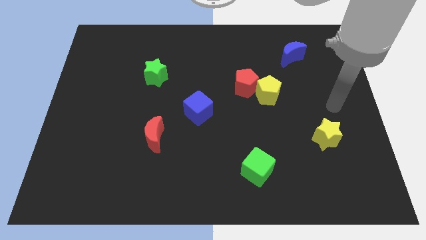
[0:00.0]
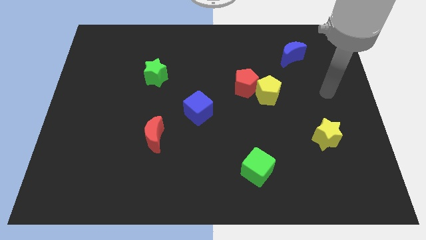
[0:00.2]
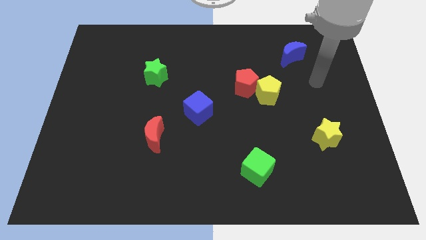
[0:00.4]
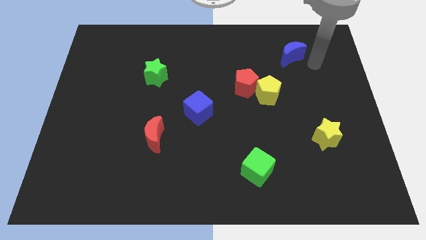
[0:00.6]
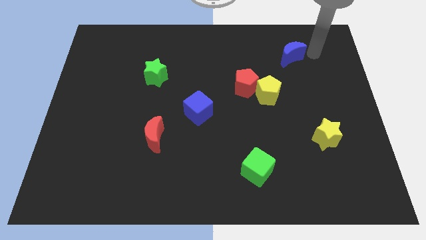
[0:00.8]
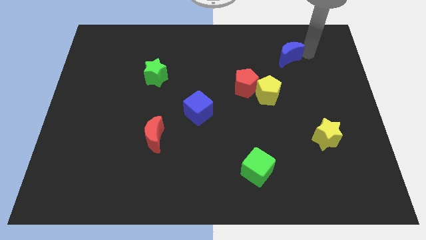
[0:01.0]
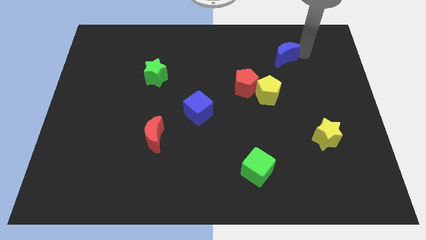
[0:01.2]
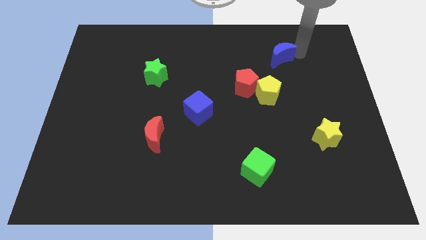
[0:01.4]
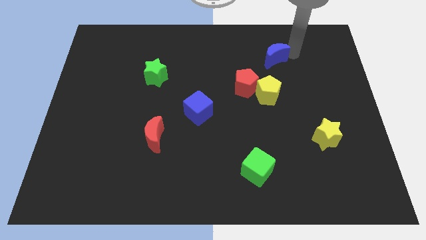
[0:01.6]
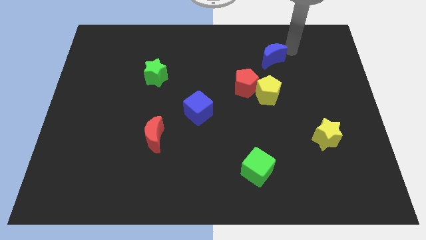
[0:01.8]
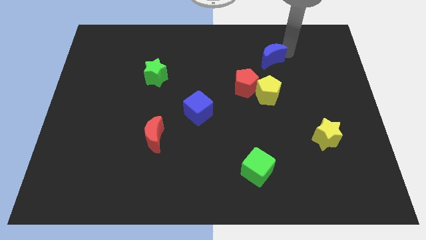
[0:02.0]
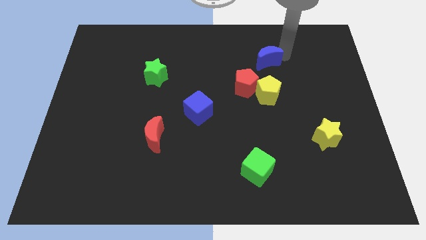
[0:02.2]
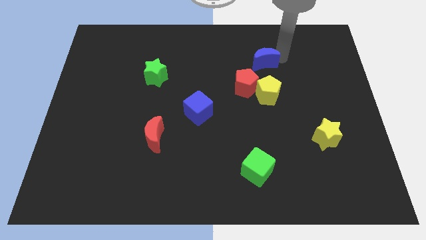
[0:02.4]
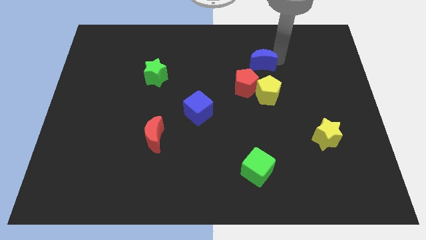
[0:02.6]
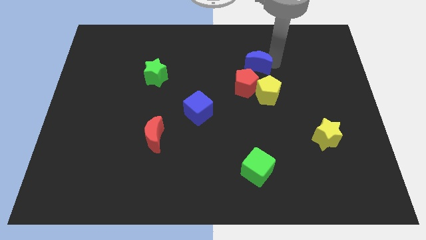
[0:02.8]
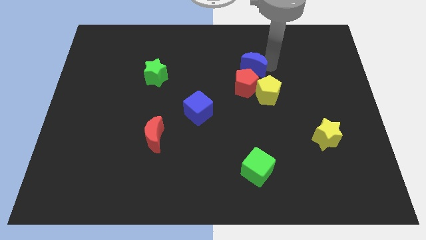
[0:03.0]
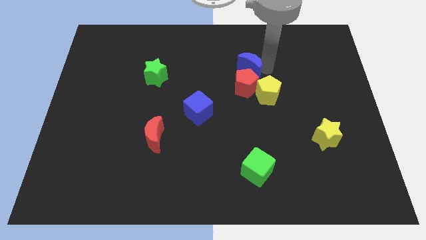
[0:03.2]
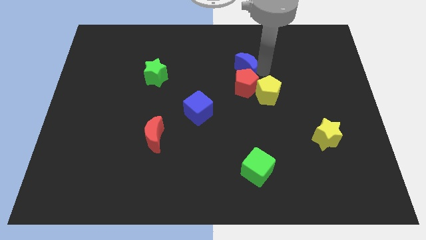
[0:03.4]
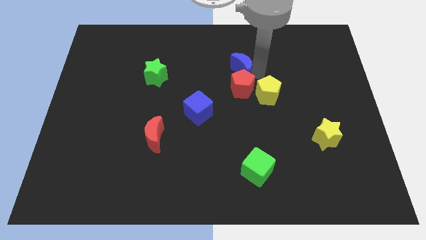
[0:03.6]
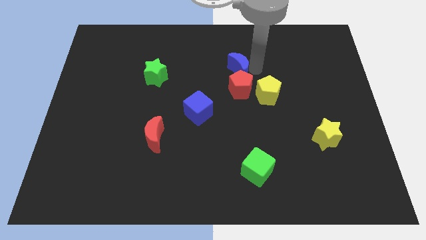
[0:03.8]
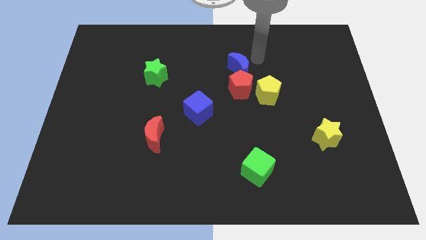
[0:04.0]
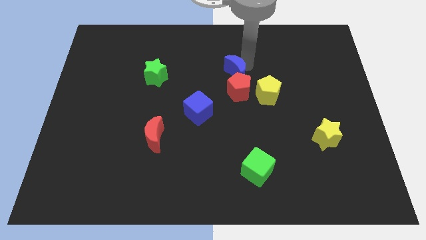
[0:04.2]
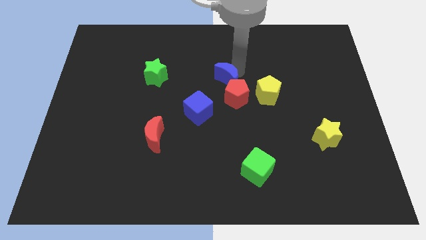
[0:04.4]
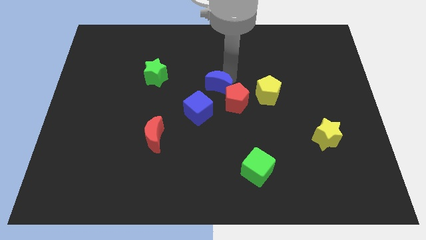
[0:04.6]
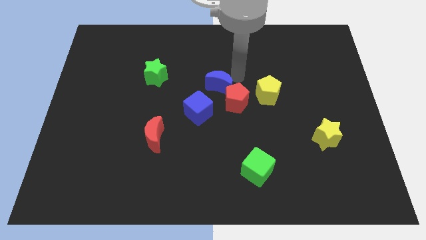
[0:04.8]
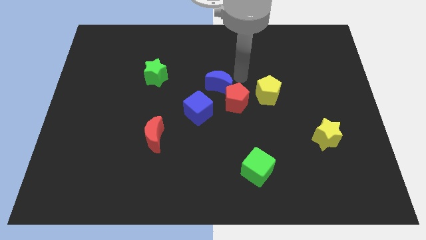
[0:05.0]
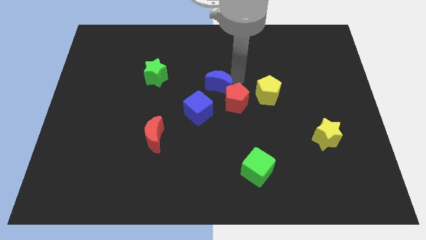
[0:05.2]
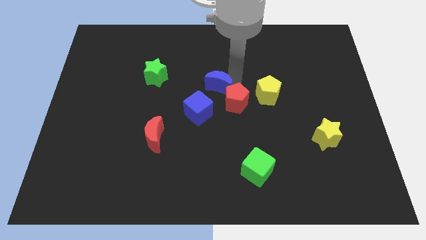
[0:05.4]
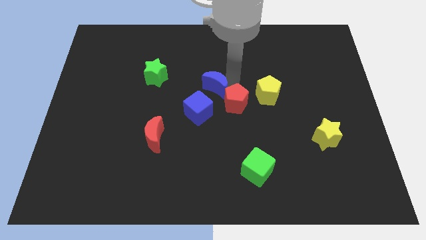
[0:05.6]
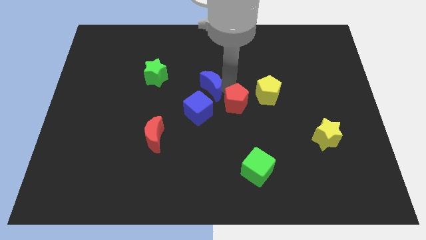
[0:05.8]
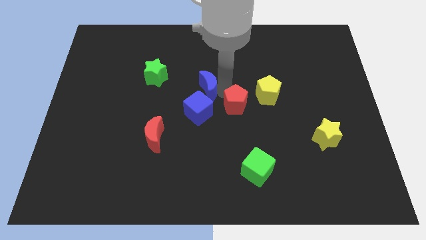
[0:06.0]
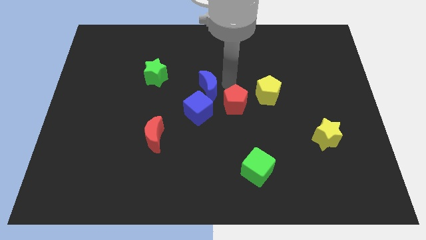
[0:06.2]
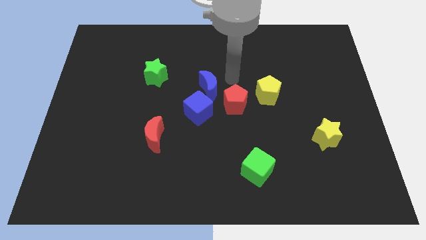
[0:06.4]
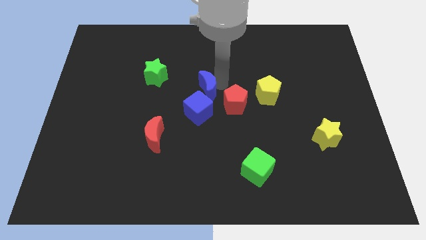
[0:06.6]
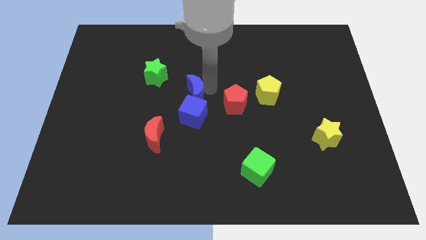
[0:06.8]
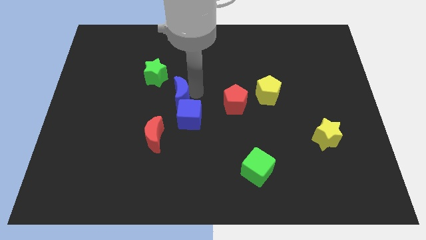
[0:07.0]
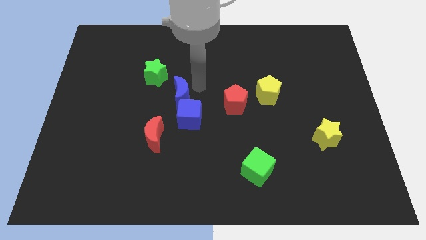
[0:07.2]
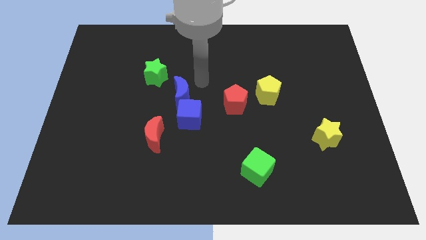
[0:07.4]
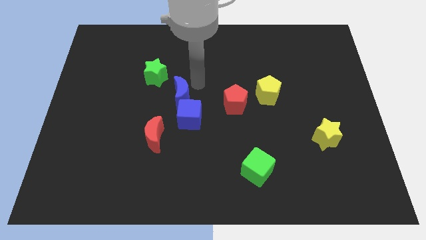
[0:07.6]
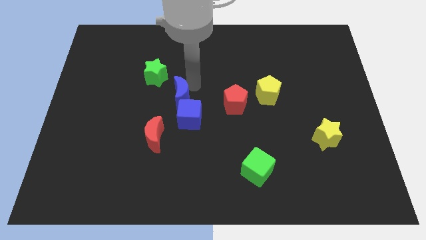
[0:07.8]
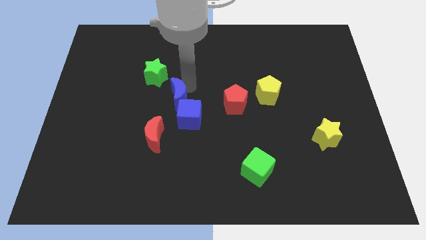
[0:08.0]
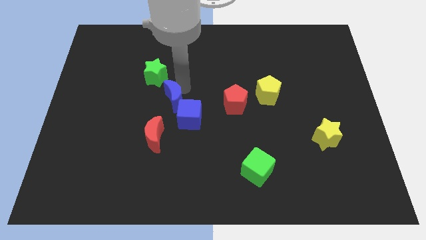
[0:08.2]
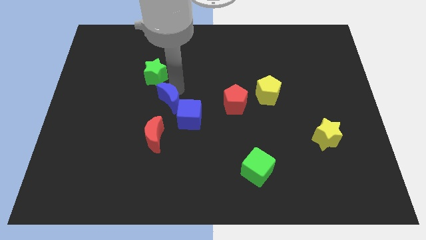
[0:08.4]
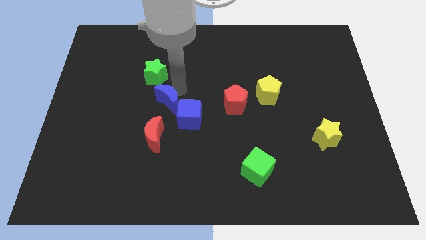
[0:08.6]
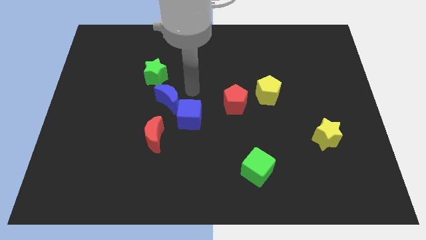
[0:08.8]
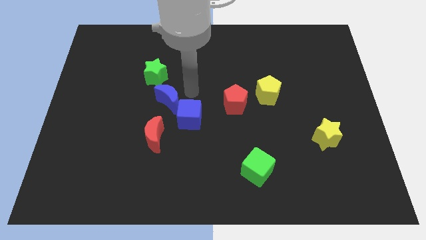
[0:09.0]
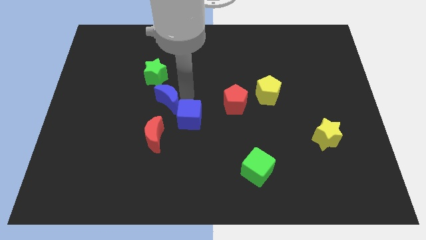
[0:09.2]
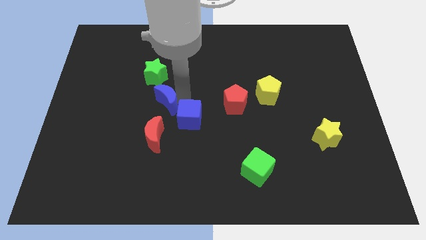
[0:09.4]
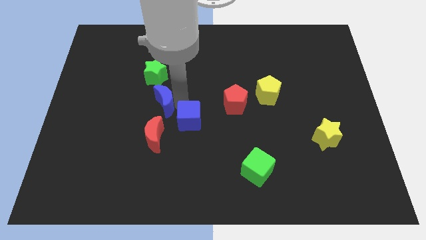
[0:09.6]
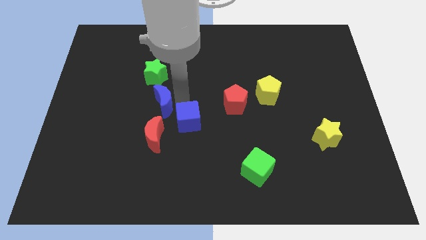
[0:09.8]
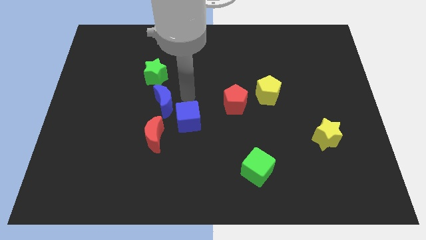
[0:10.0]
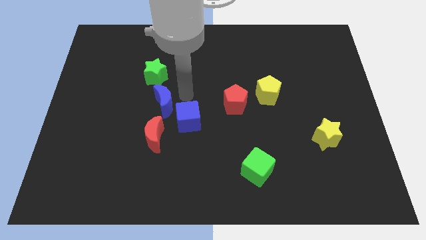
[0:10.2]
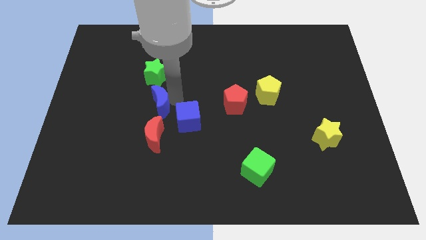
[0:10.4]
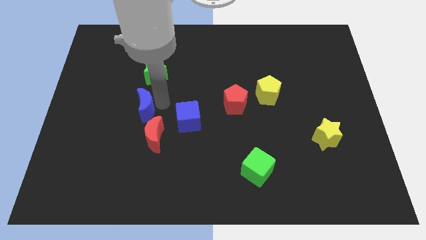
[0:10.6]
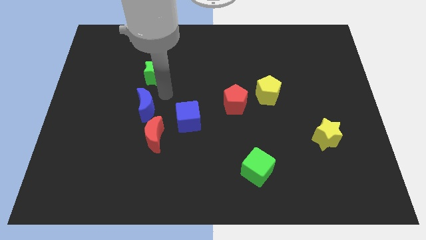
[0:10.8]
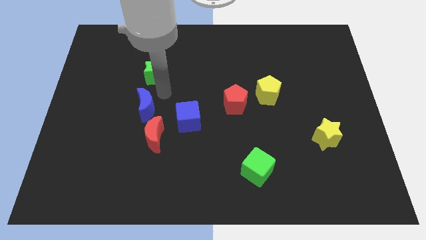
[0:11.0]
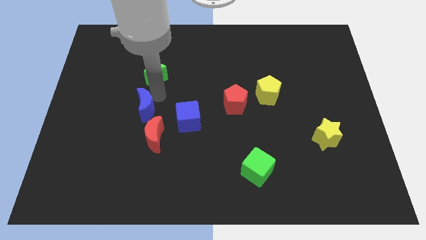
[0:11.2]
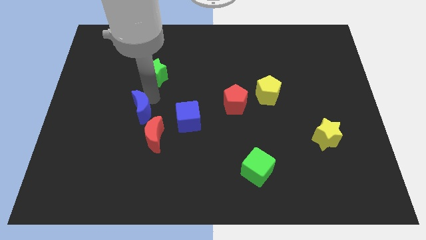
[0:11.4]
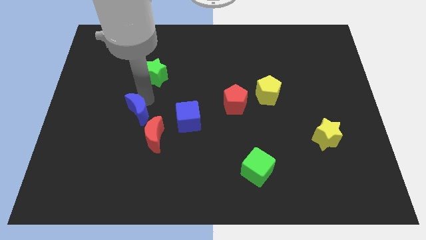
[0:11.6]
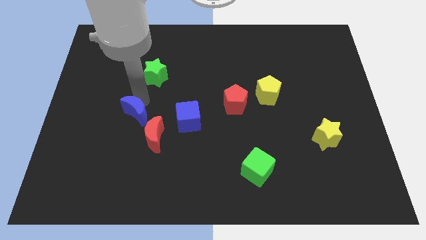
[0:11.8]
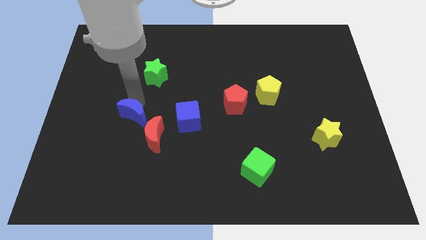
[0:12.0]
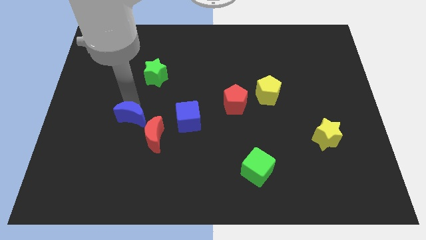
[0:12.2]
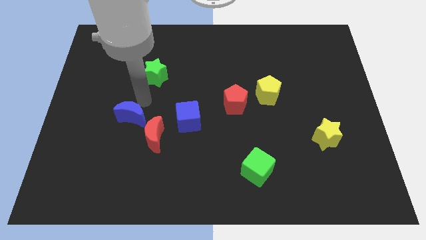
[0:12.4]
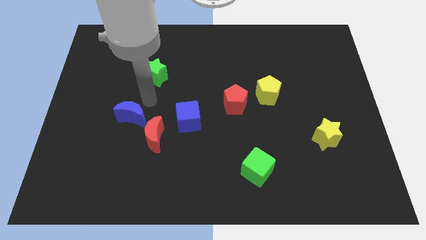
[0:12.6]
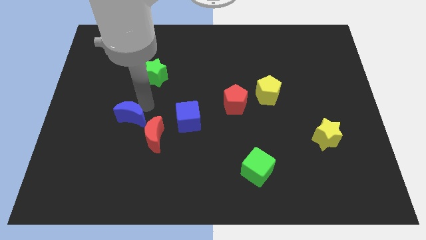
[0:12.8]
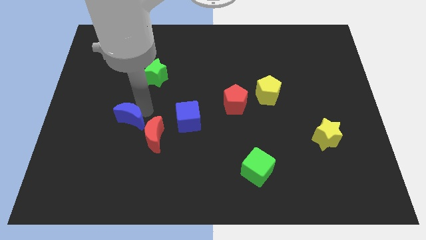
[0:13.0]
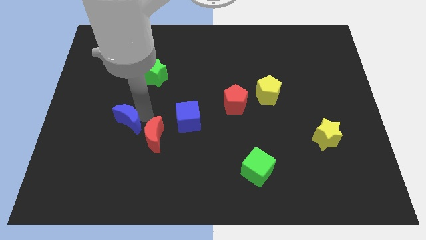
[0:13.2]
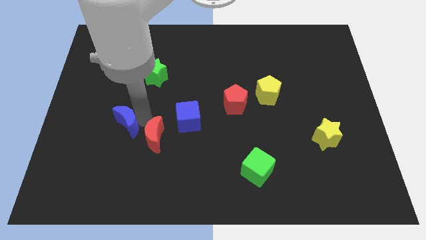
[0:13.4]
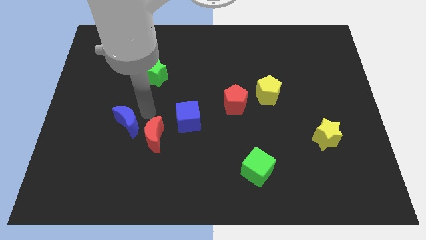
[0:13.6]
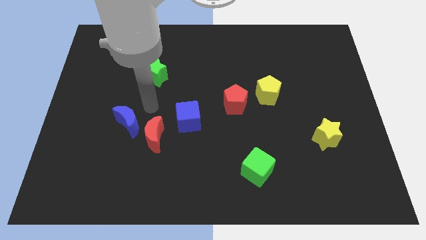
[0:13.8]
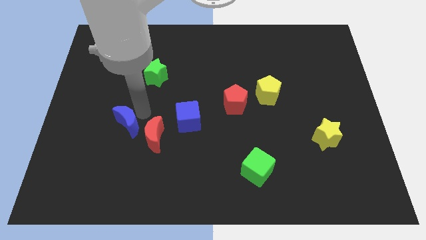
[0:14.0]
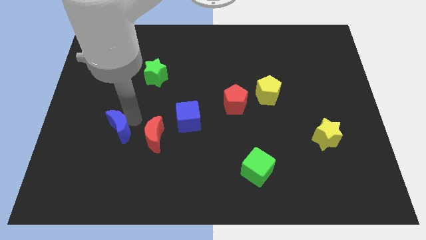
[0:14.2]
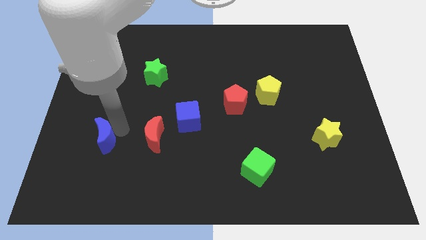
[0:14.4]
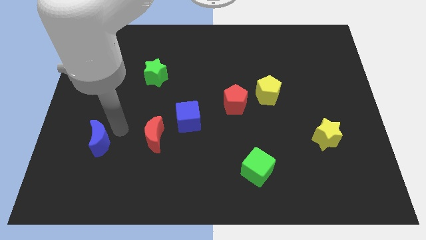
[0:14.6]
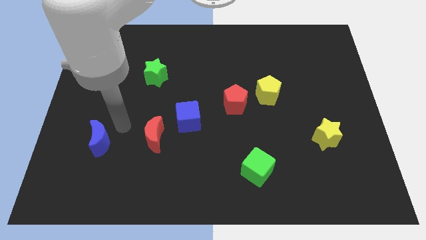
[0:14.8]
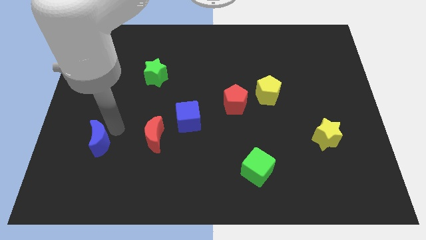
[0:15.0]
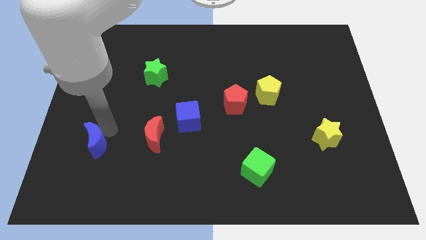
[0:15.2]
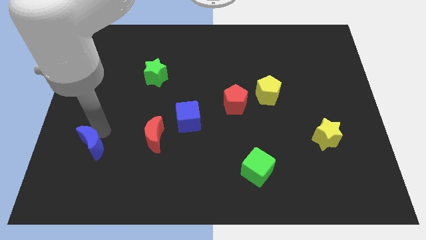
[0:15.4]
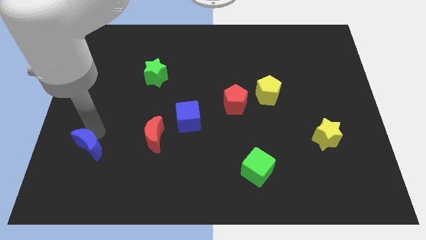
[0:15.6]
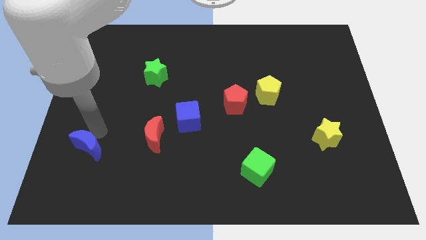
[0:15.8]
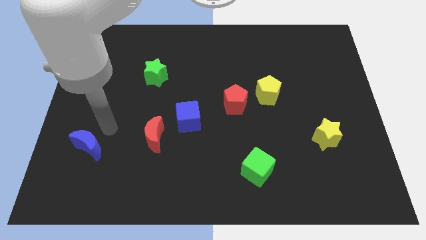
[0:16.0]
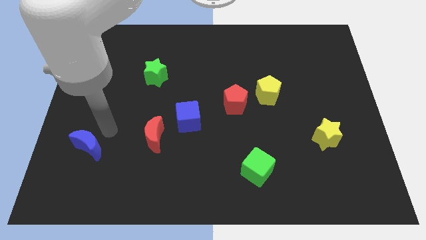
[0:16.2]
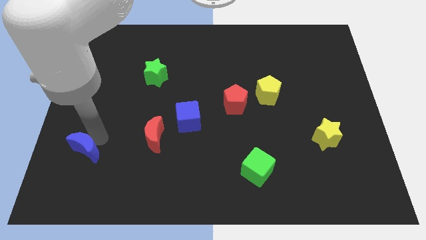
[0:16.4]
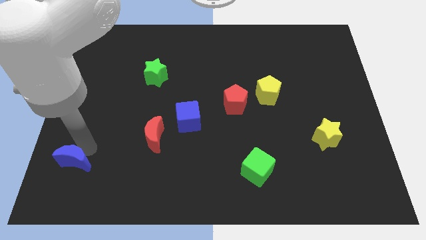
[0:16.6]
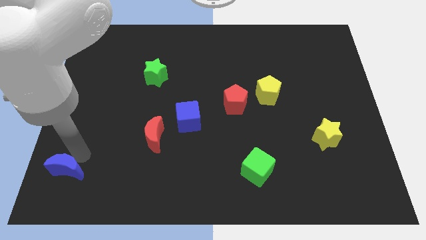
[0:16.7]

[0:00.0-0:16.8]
put the blue moon to the lower left corner
